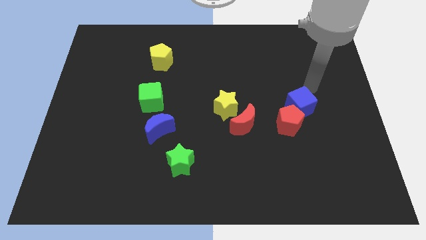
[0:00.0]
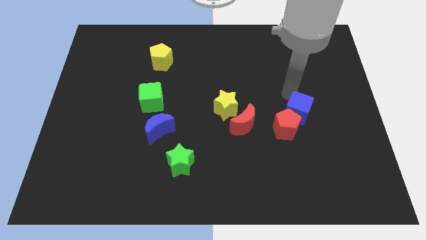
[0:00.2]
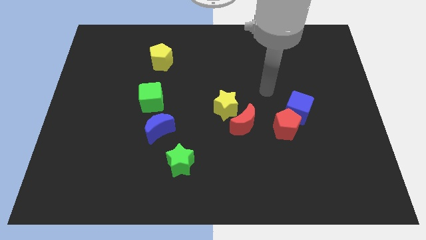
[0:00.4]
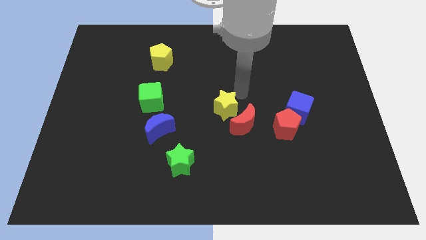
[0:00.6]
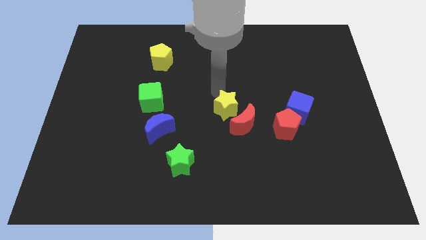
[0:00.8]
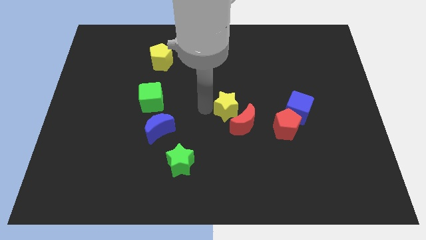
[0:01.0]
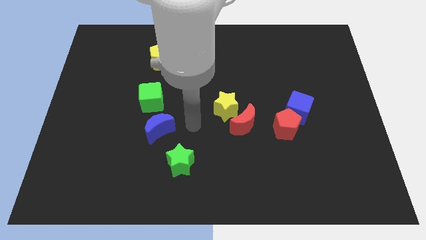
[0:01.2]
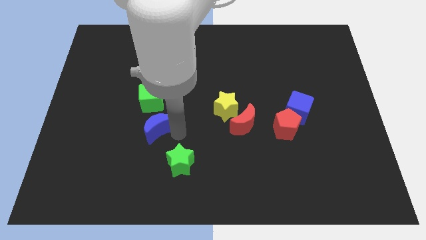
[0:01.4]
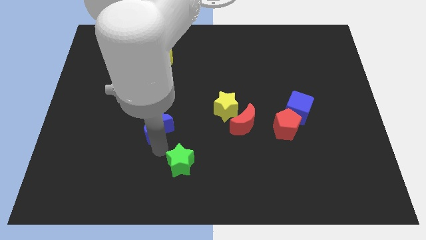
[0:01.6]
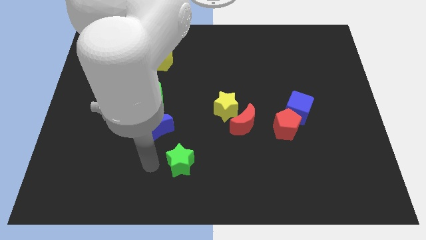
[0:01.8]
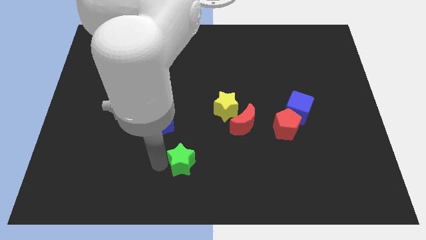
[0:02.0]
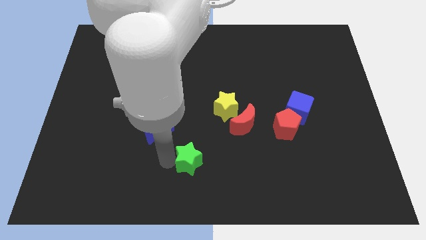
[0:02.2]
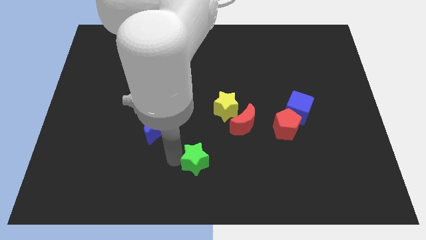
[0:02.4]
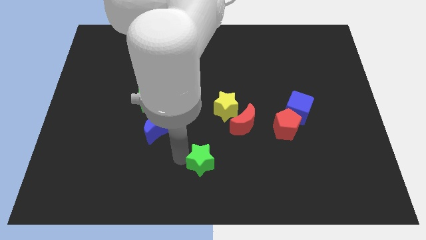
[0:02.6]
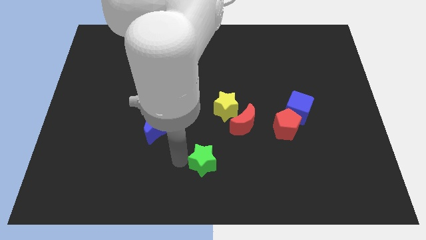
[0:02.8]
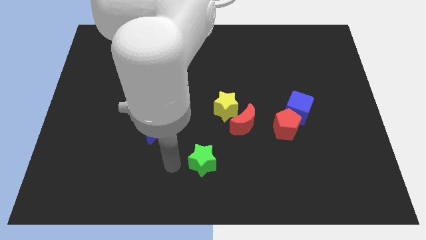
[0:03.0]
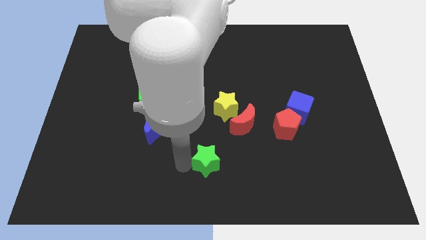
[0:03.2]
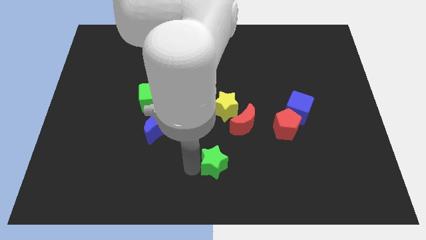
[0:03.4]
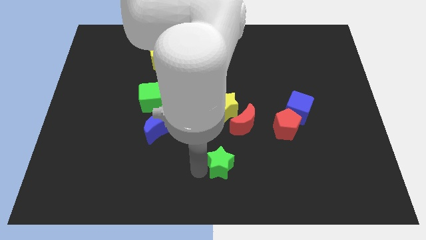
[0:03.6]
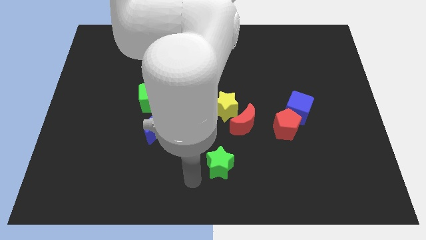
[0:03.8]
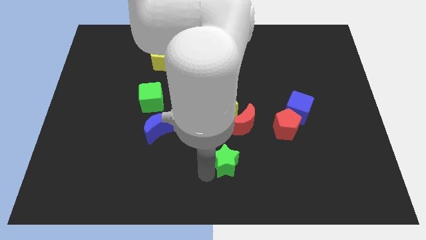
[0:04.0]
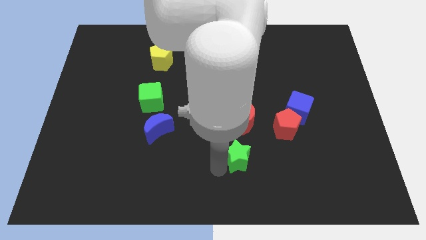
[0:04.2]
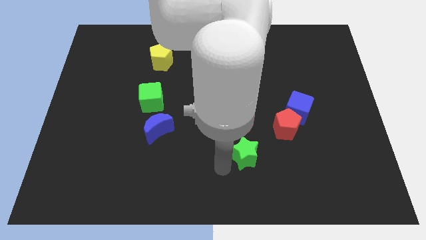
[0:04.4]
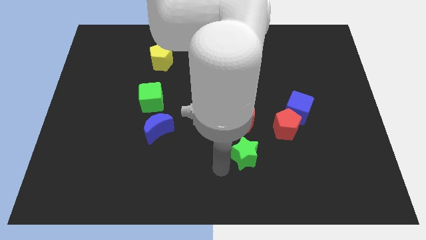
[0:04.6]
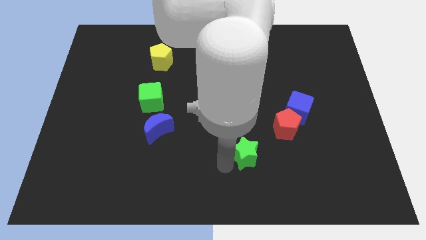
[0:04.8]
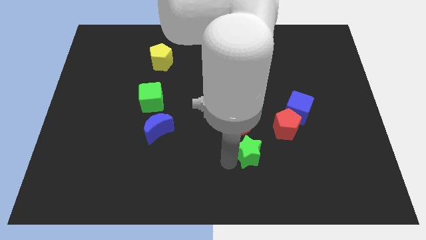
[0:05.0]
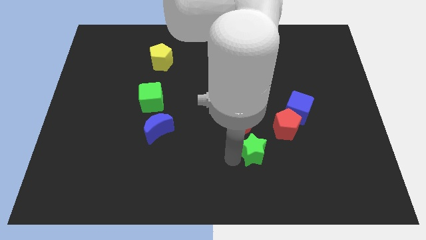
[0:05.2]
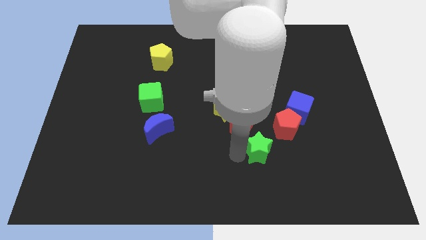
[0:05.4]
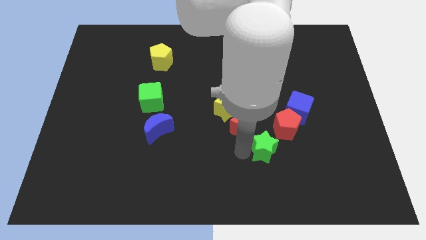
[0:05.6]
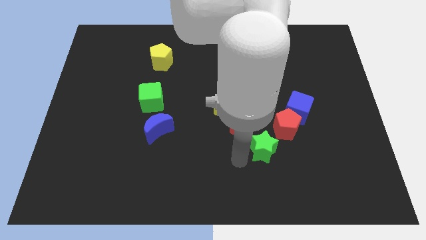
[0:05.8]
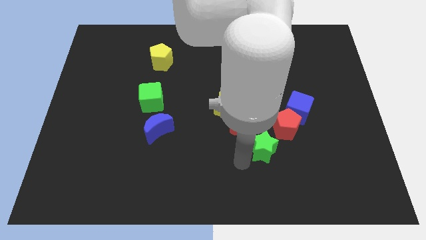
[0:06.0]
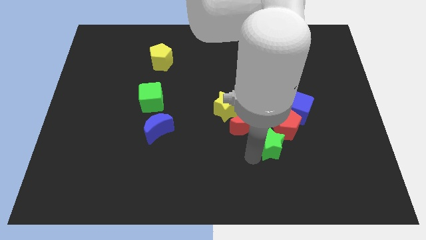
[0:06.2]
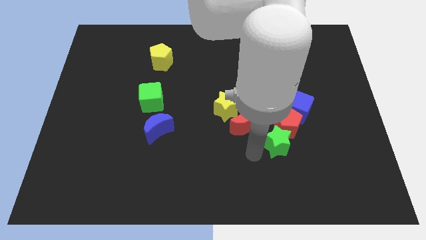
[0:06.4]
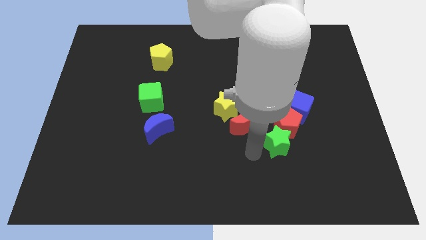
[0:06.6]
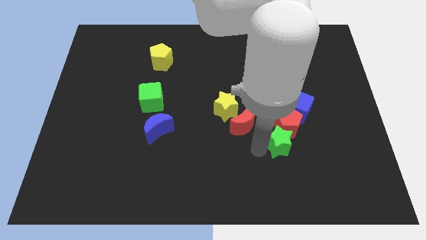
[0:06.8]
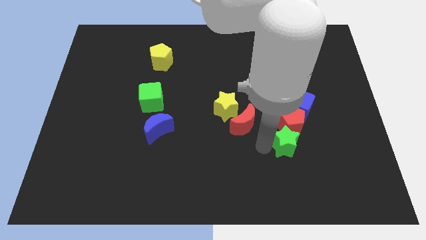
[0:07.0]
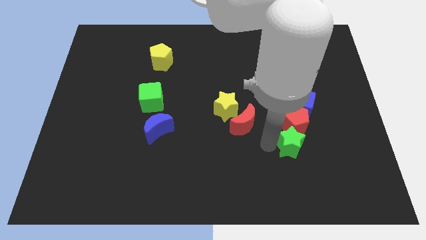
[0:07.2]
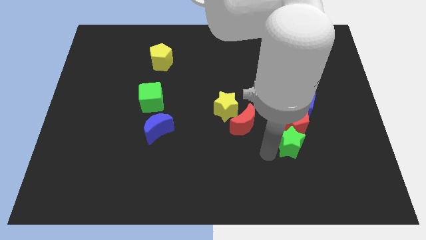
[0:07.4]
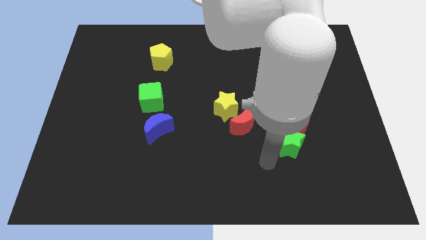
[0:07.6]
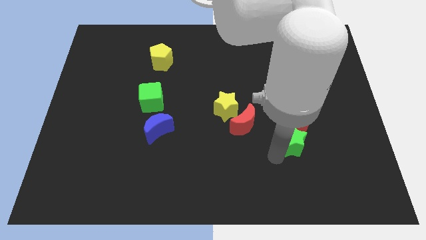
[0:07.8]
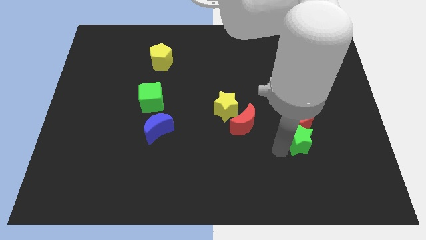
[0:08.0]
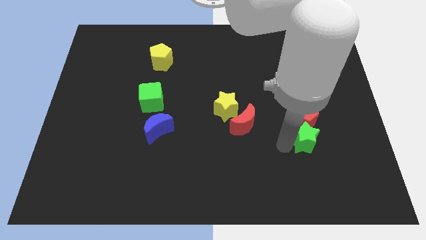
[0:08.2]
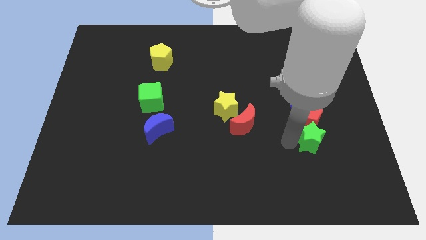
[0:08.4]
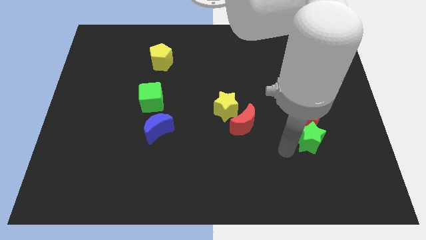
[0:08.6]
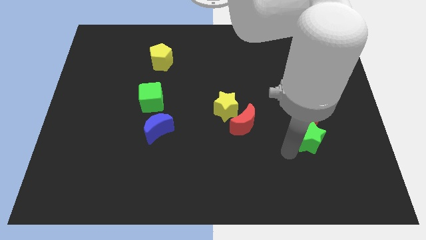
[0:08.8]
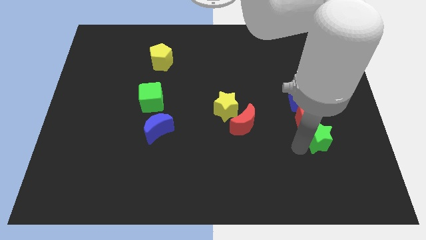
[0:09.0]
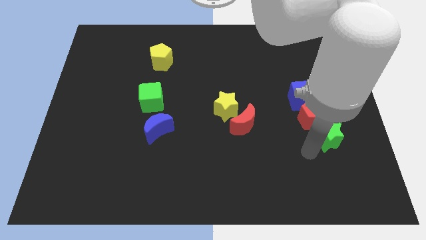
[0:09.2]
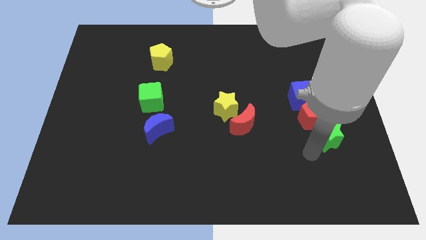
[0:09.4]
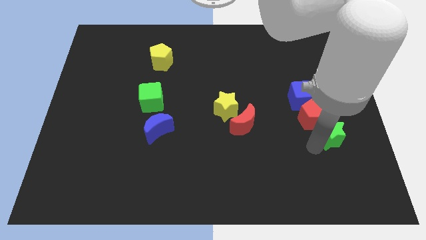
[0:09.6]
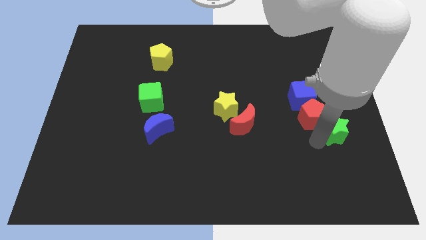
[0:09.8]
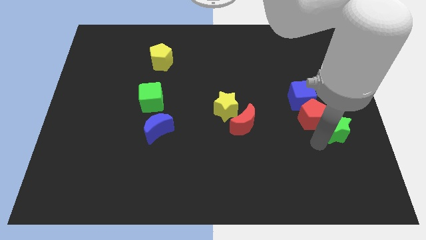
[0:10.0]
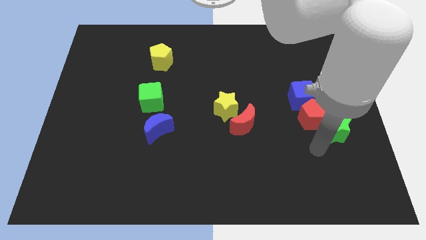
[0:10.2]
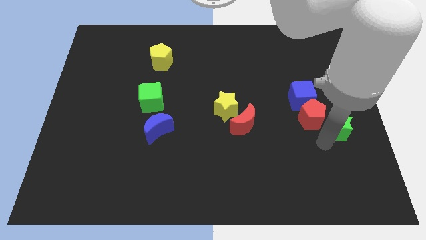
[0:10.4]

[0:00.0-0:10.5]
put the green star to the right side of the board

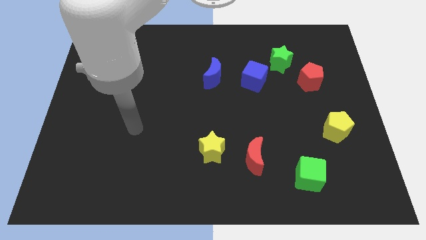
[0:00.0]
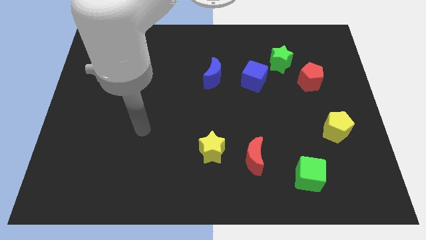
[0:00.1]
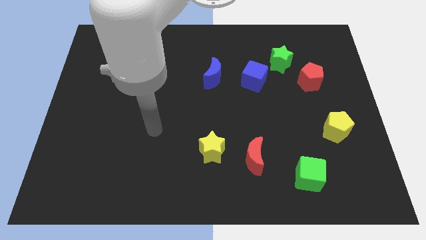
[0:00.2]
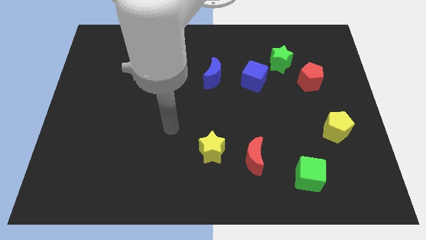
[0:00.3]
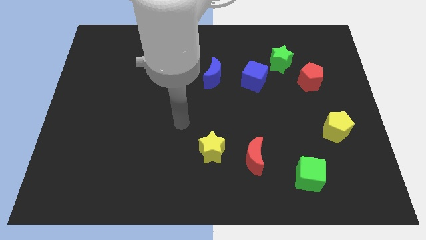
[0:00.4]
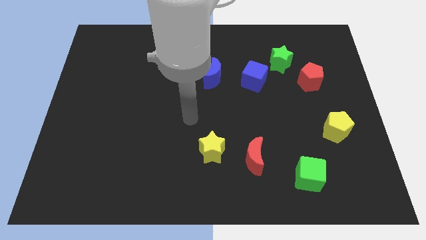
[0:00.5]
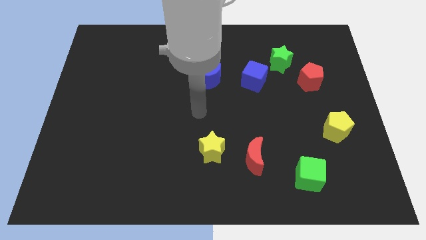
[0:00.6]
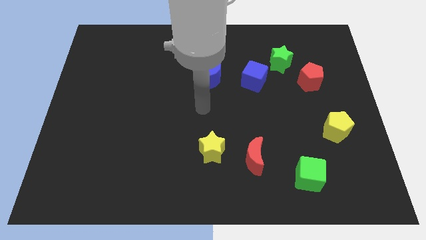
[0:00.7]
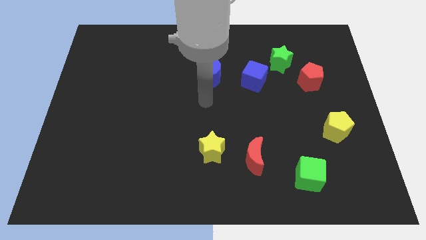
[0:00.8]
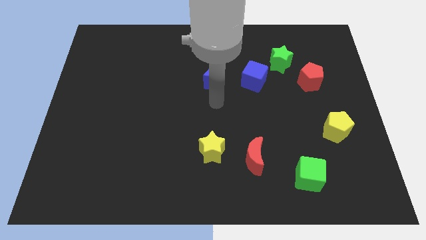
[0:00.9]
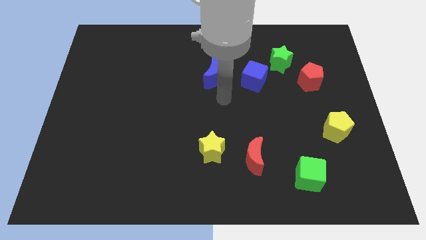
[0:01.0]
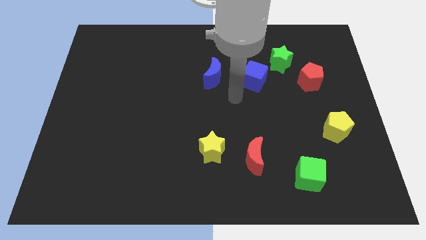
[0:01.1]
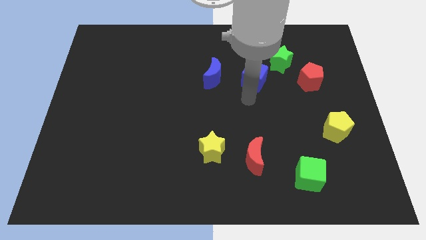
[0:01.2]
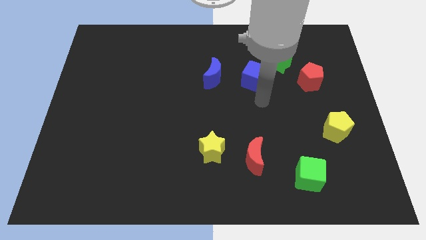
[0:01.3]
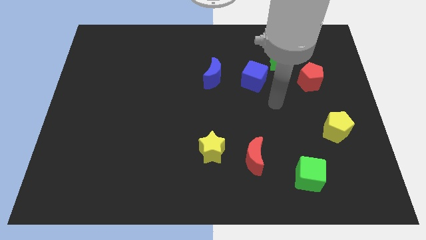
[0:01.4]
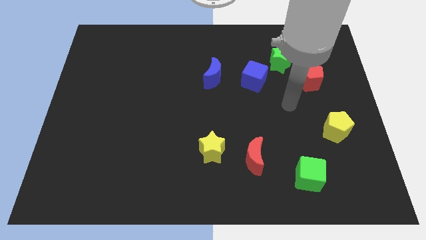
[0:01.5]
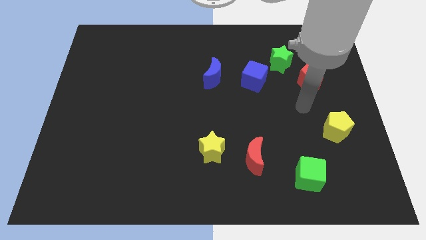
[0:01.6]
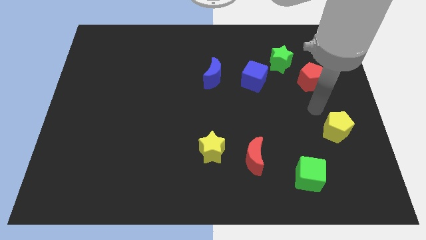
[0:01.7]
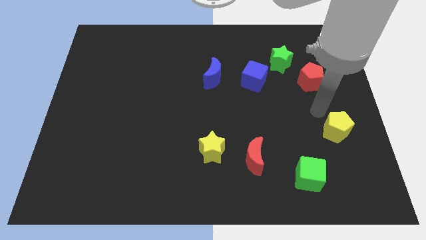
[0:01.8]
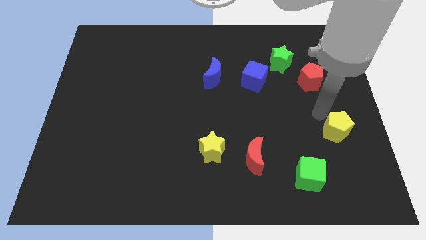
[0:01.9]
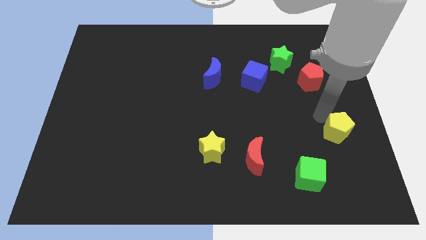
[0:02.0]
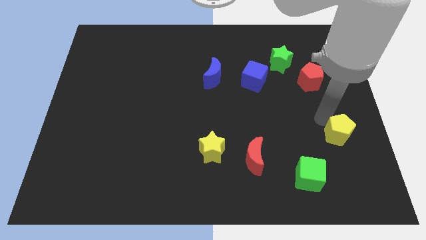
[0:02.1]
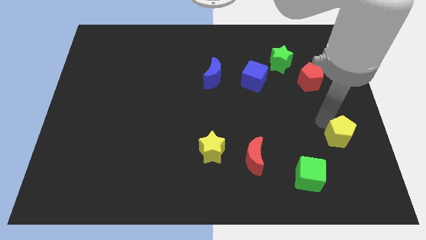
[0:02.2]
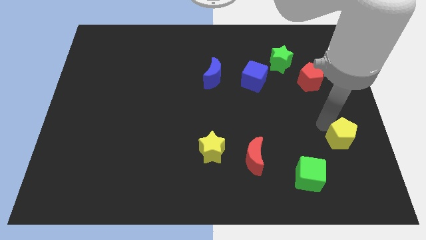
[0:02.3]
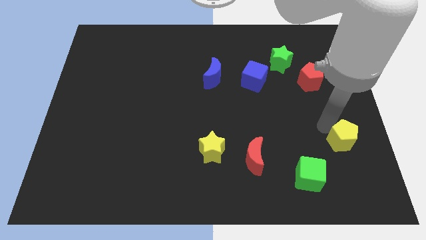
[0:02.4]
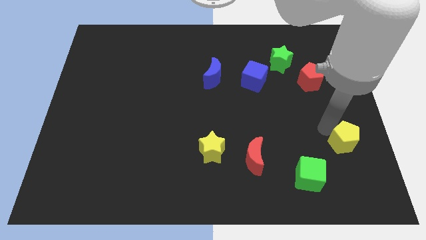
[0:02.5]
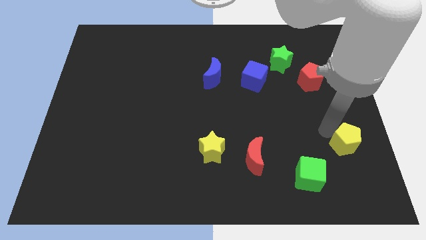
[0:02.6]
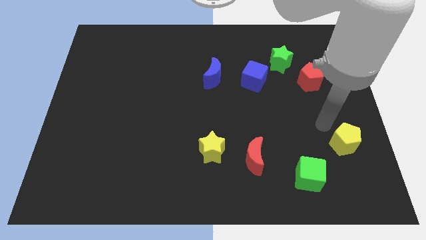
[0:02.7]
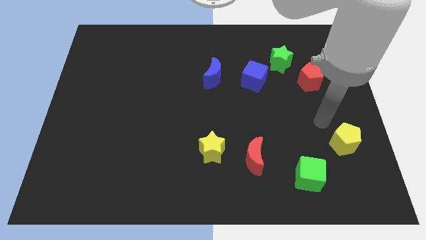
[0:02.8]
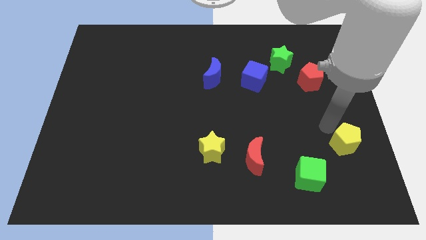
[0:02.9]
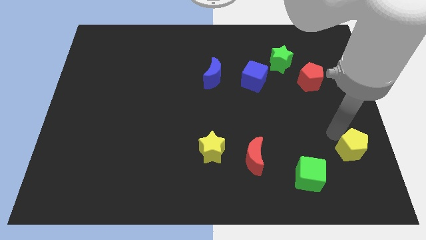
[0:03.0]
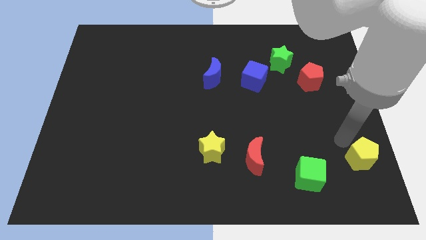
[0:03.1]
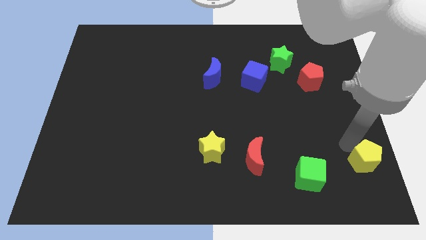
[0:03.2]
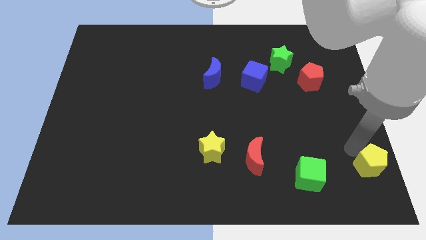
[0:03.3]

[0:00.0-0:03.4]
put the yellow pentagon to the bottom right corner
